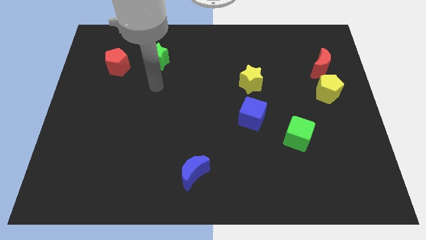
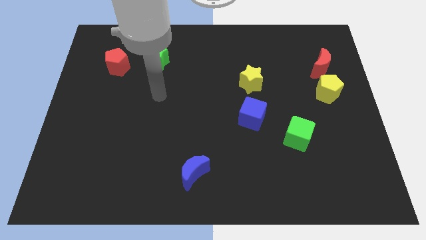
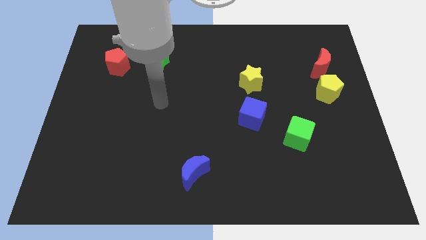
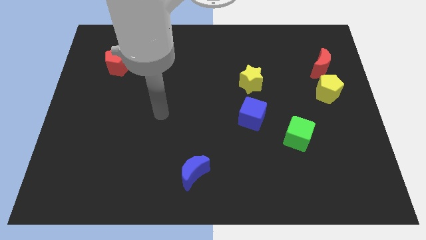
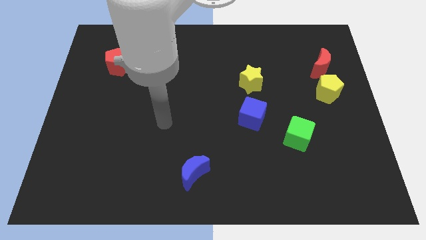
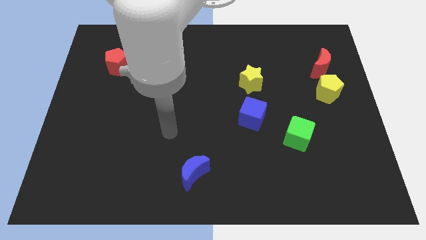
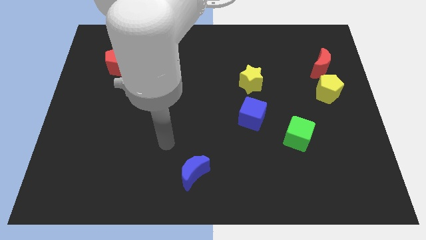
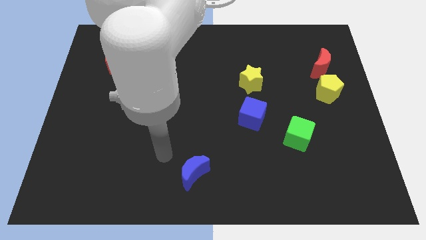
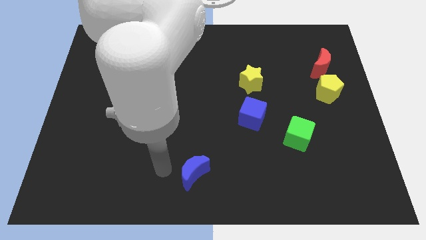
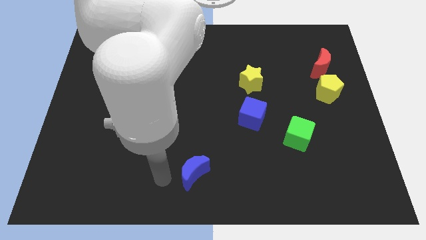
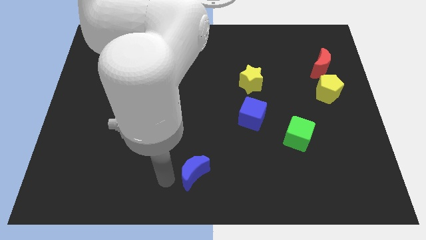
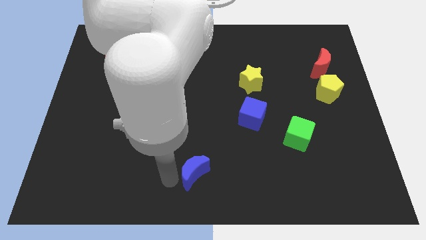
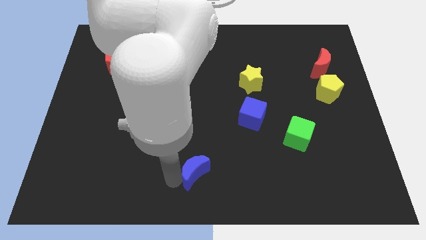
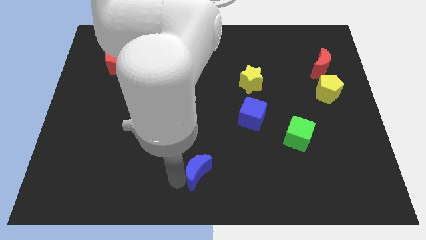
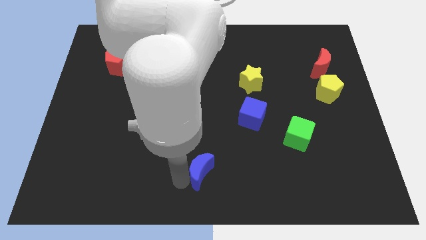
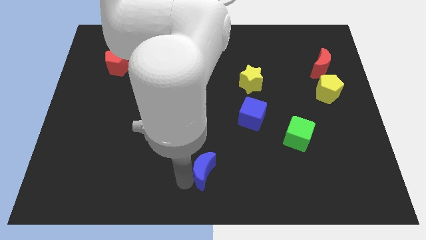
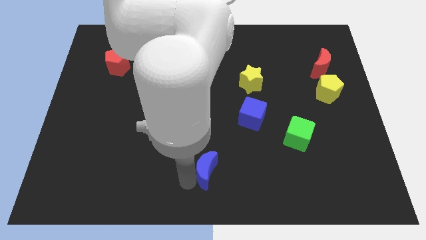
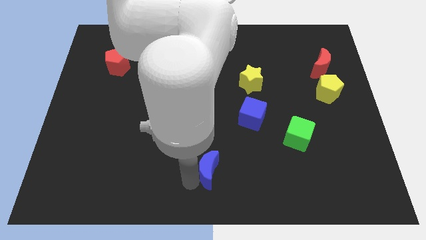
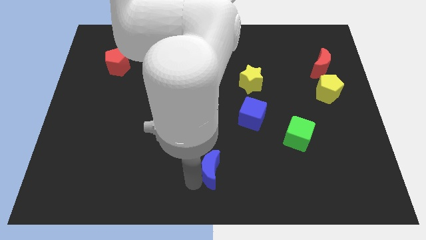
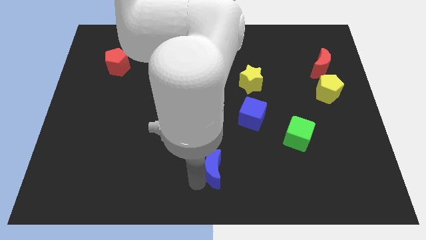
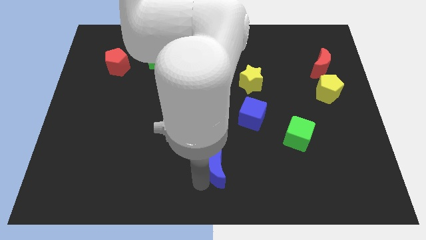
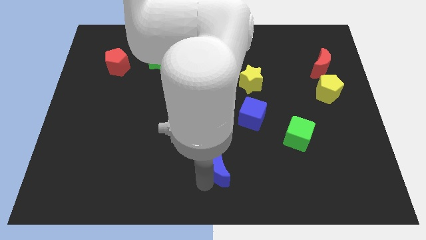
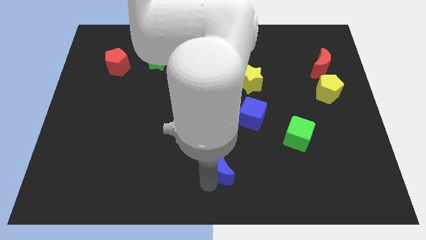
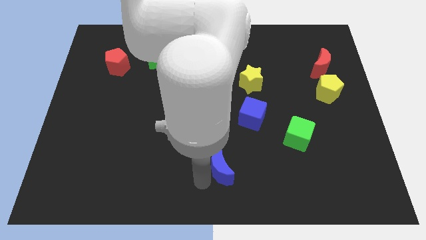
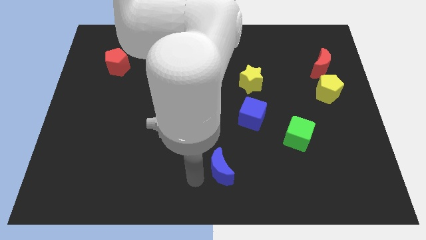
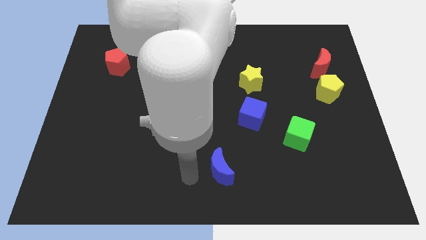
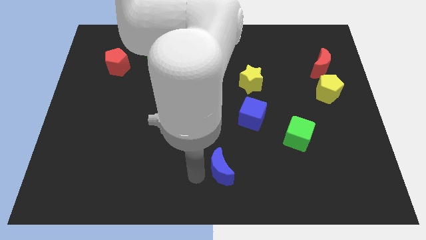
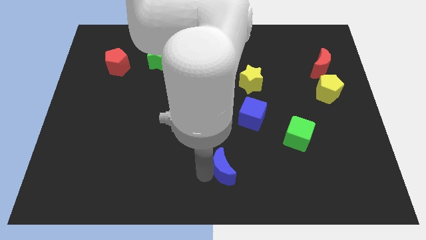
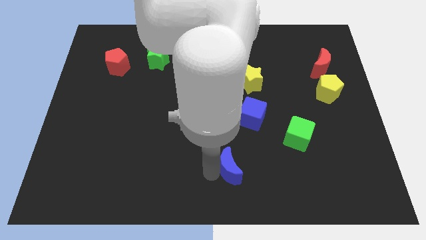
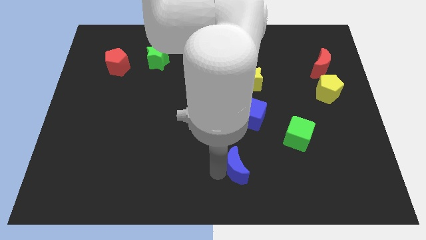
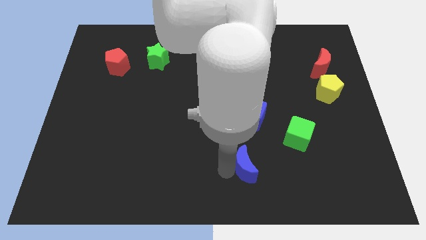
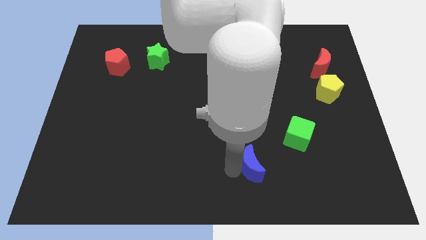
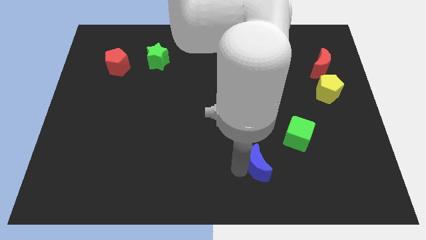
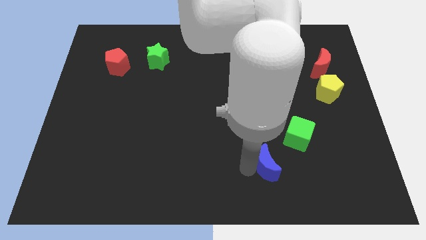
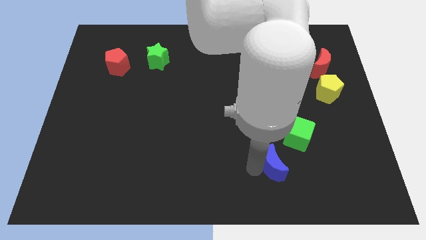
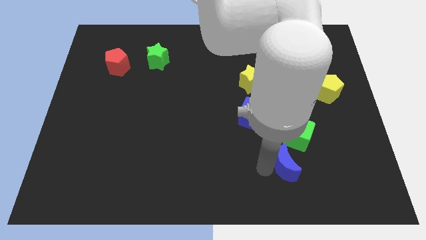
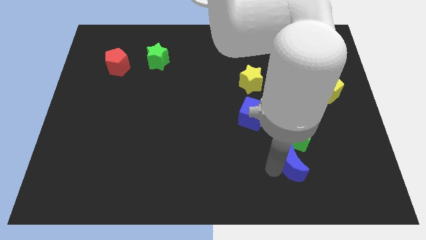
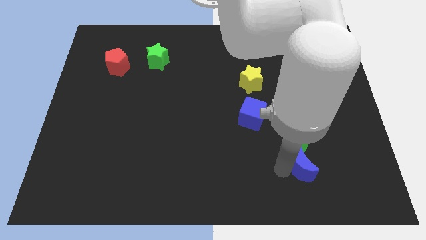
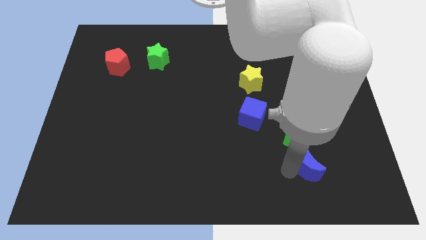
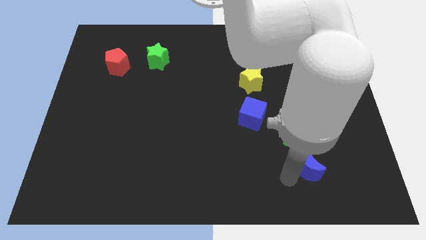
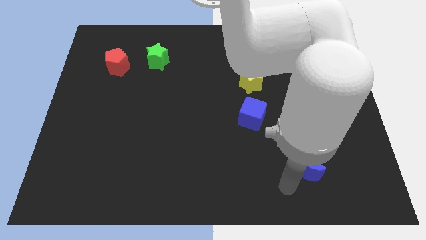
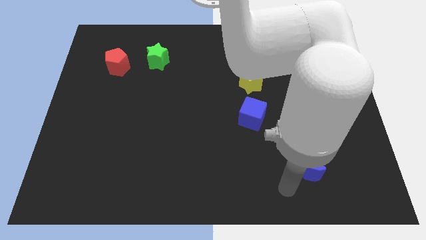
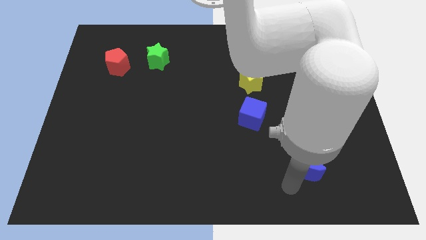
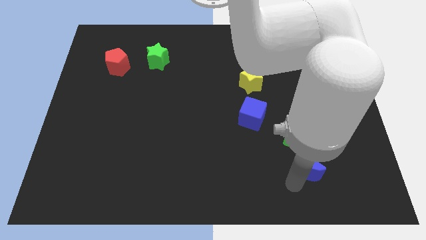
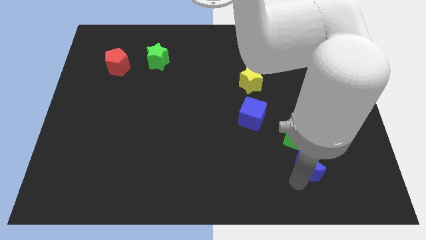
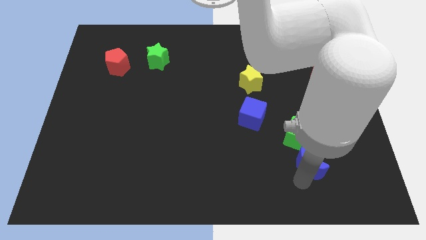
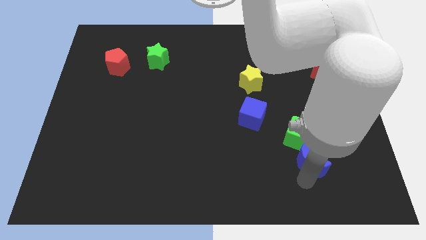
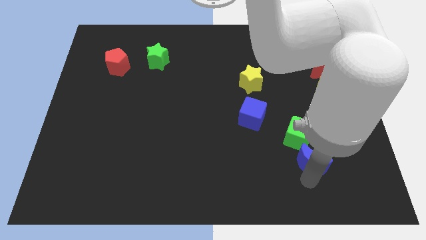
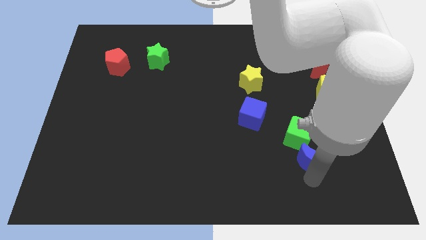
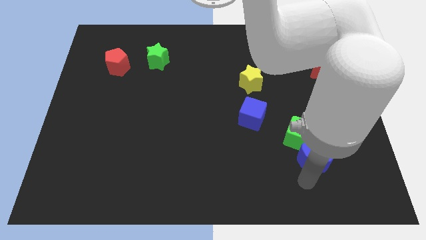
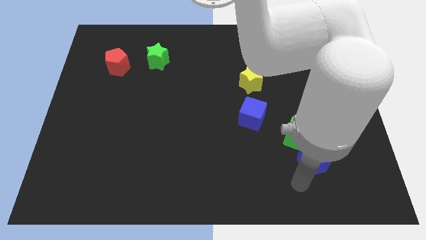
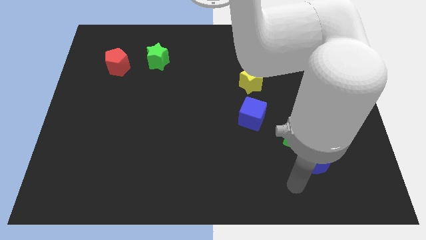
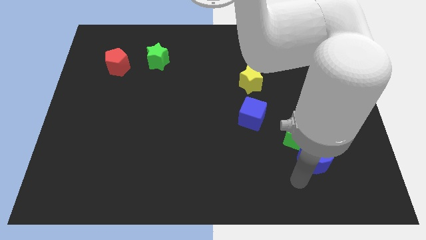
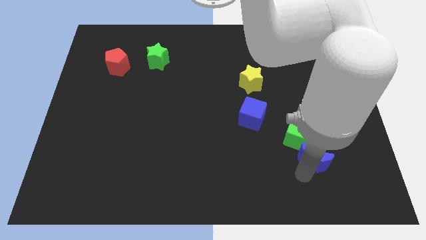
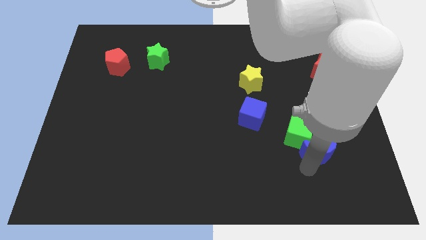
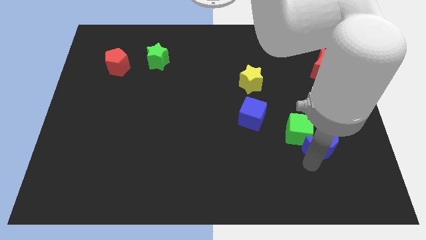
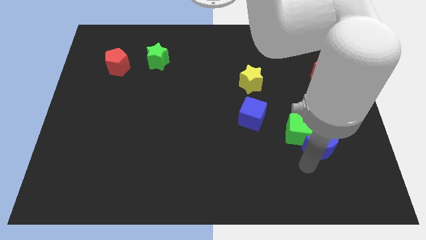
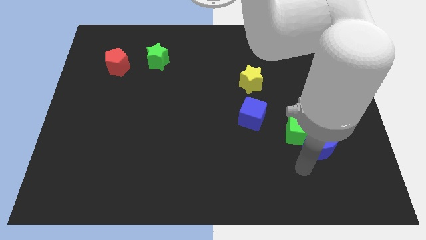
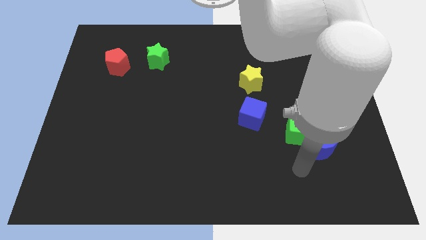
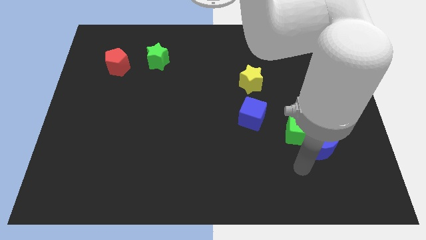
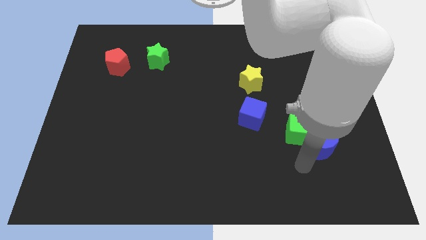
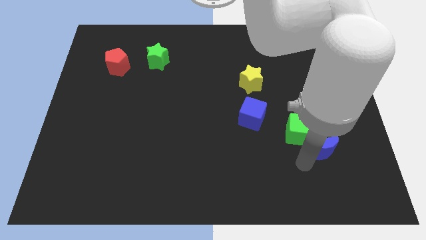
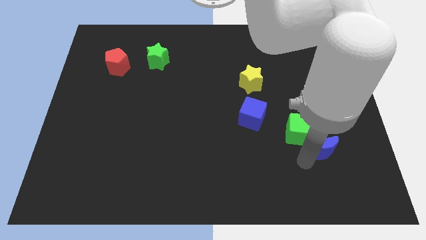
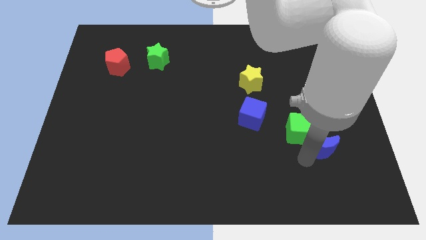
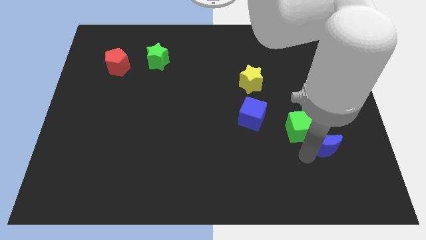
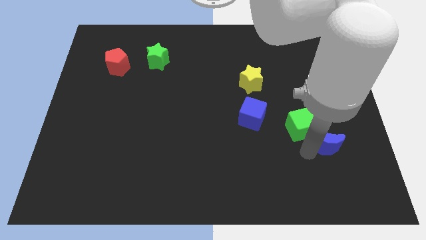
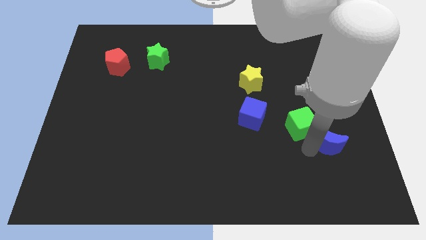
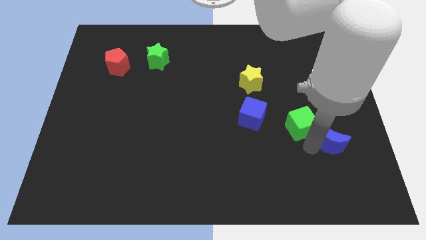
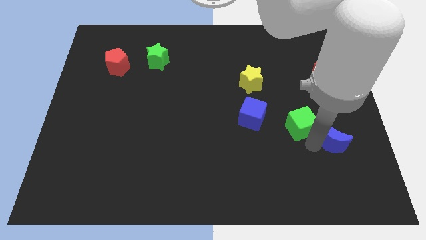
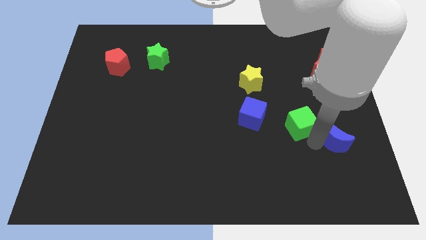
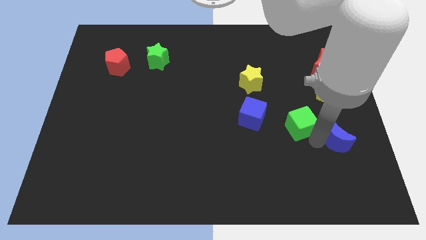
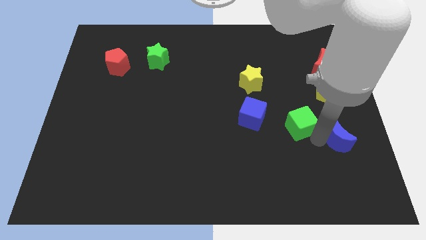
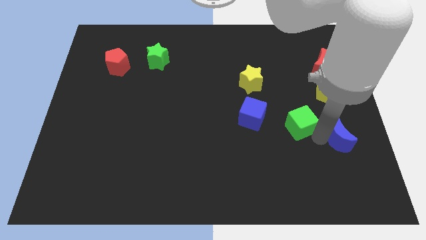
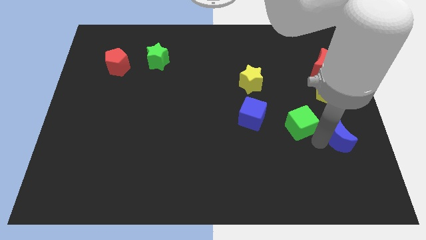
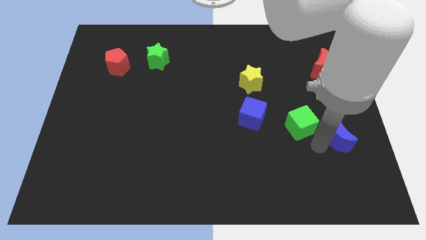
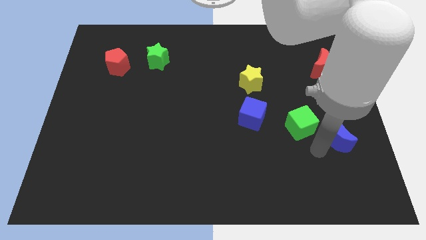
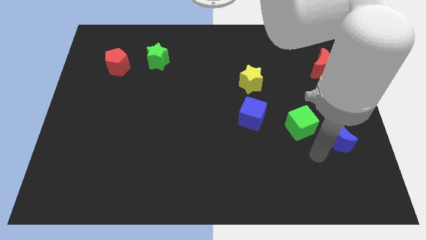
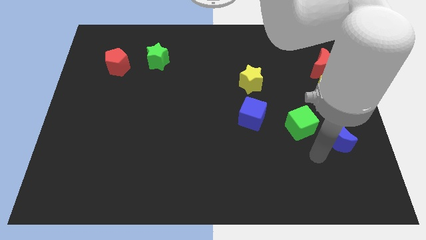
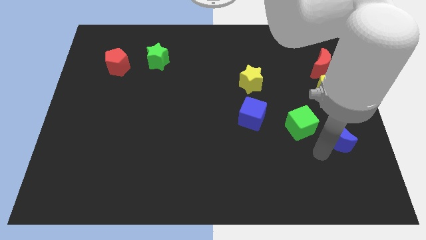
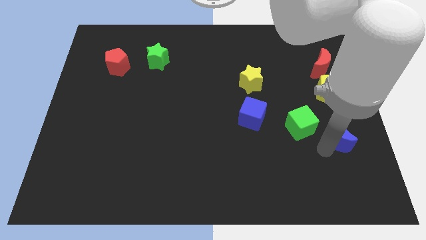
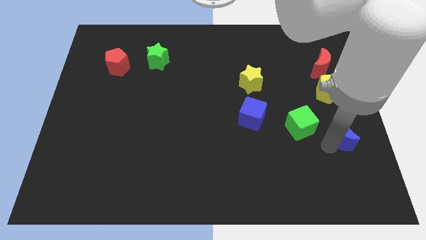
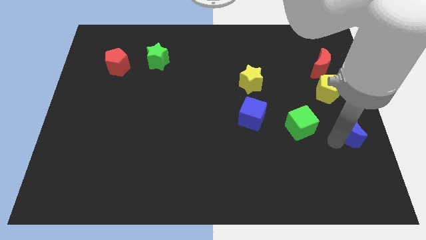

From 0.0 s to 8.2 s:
slide the blue moon to the right side
